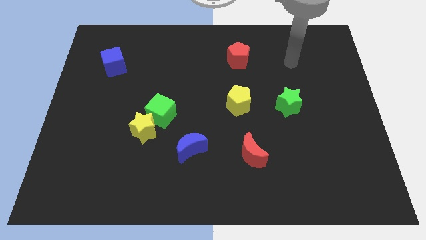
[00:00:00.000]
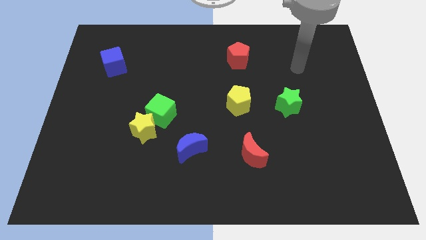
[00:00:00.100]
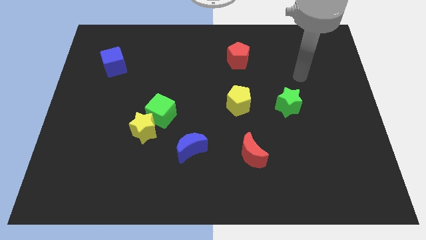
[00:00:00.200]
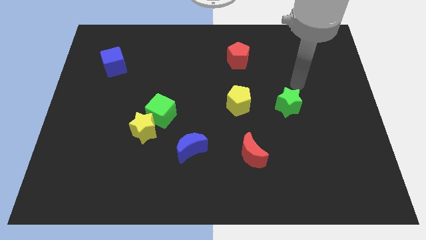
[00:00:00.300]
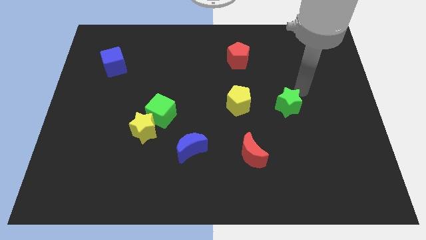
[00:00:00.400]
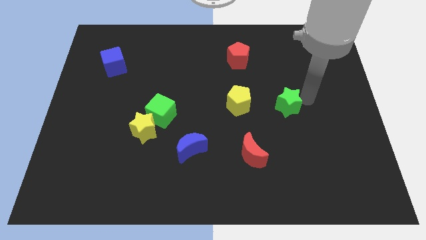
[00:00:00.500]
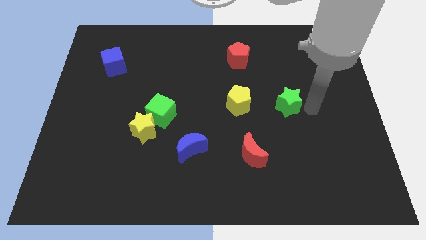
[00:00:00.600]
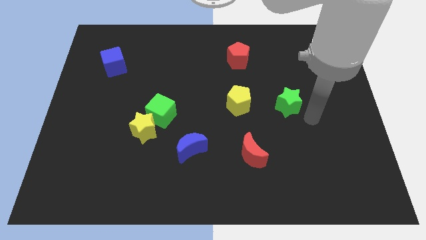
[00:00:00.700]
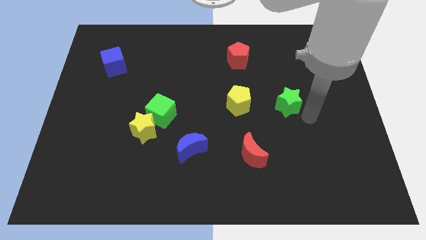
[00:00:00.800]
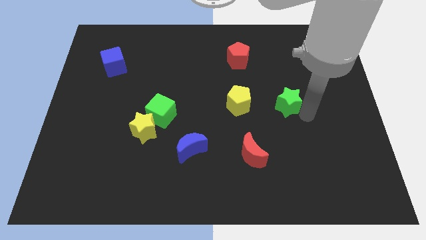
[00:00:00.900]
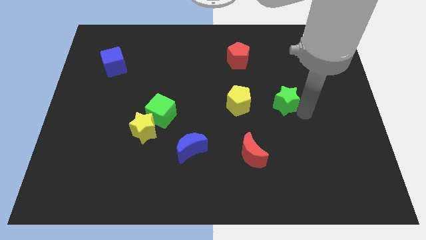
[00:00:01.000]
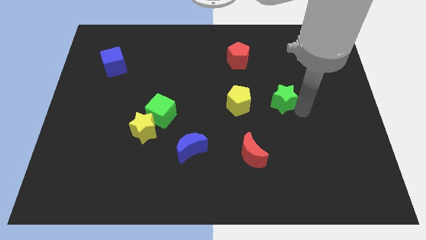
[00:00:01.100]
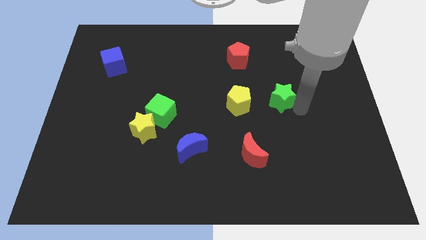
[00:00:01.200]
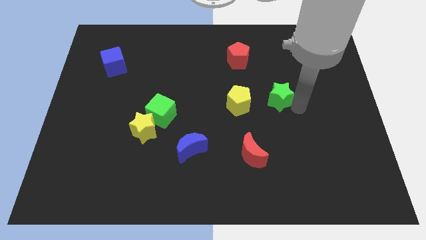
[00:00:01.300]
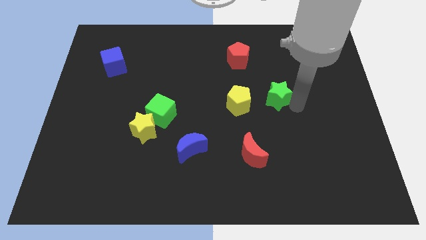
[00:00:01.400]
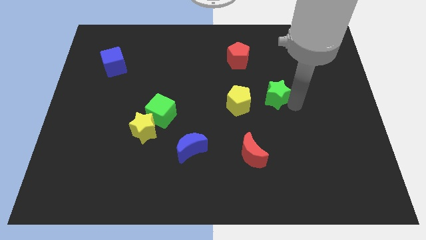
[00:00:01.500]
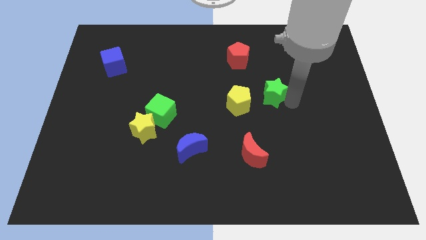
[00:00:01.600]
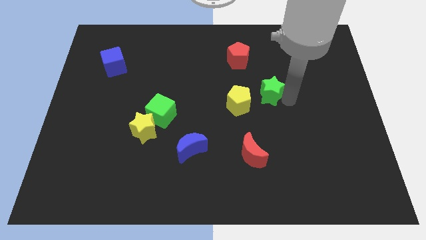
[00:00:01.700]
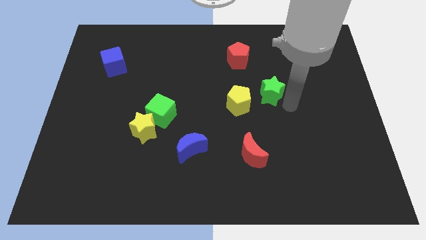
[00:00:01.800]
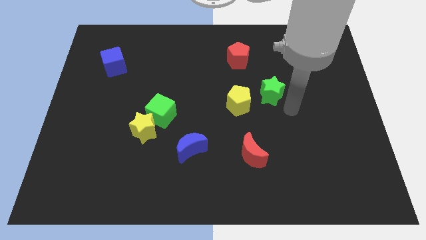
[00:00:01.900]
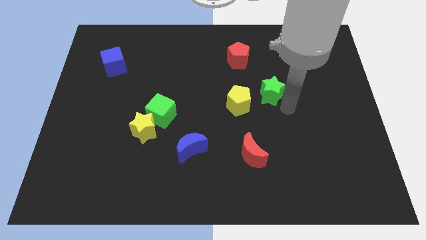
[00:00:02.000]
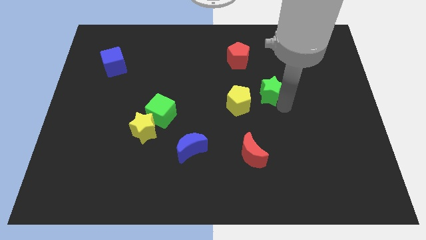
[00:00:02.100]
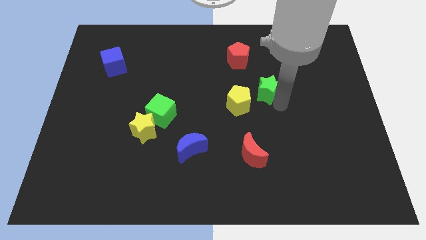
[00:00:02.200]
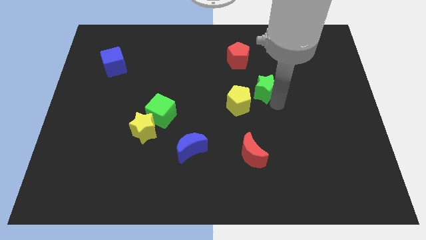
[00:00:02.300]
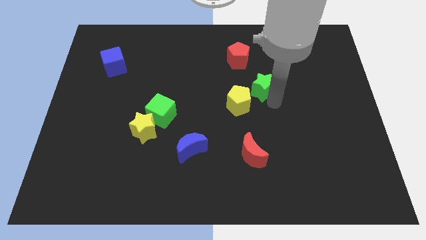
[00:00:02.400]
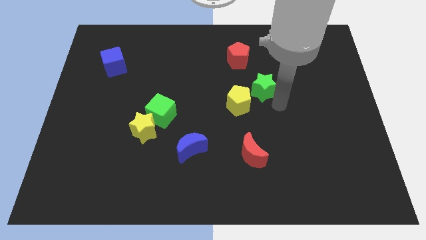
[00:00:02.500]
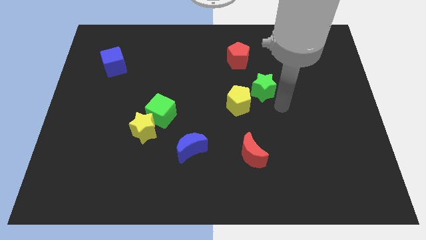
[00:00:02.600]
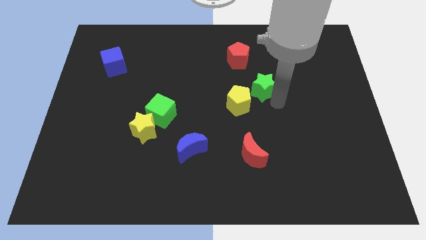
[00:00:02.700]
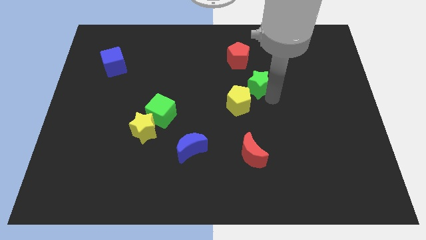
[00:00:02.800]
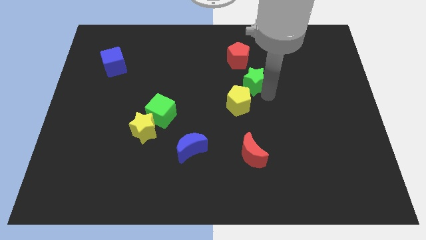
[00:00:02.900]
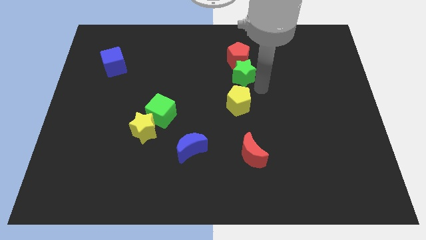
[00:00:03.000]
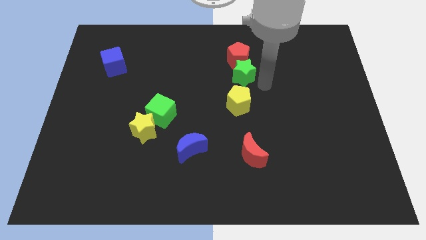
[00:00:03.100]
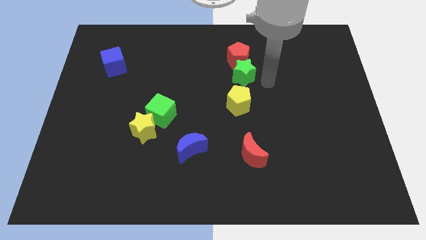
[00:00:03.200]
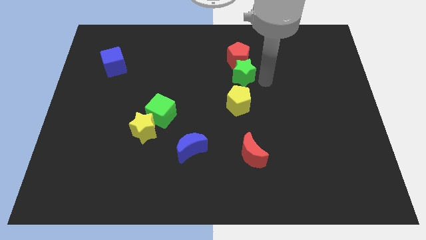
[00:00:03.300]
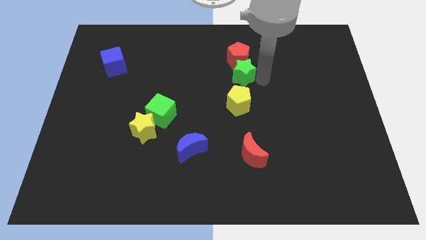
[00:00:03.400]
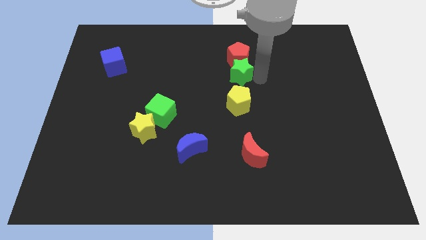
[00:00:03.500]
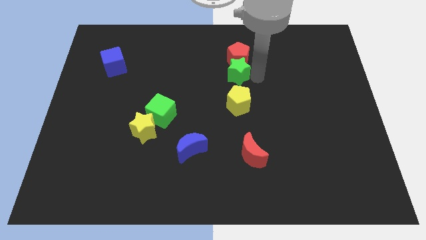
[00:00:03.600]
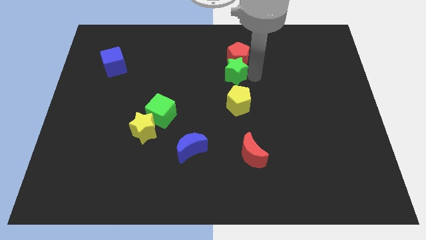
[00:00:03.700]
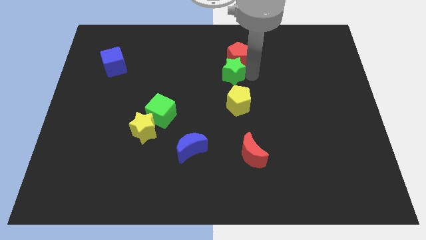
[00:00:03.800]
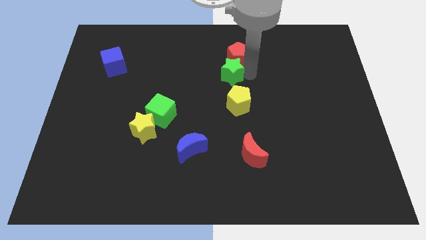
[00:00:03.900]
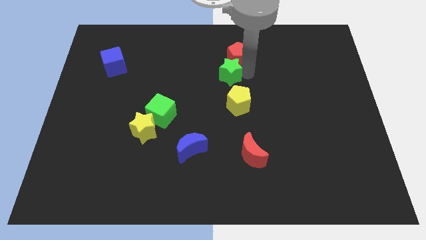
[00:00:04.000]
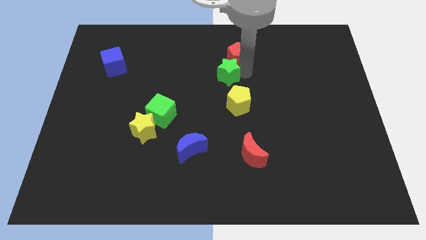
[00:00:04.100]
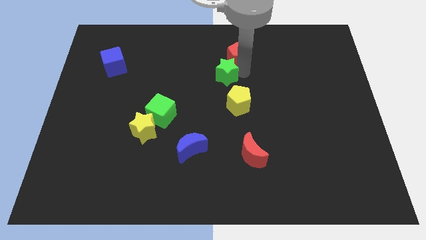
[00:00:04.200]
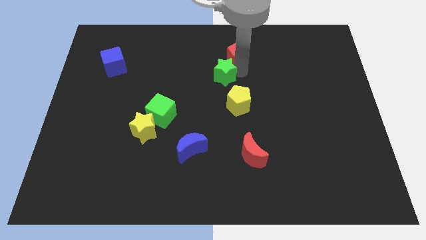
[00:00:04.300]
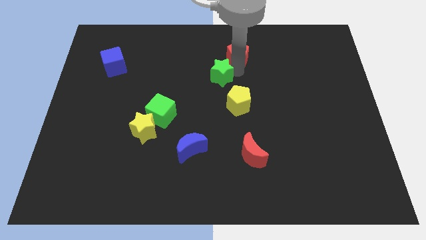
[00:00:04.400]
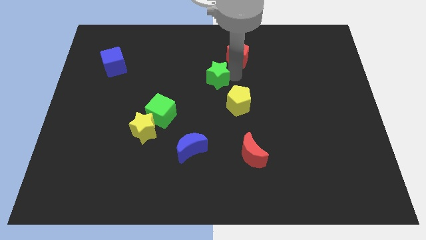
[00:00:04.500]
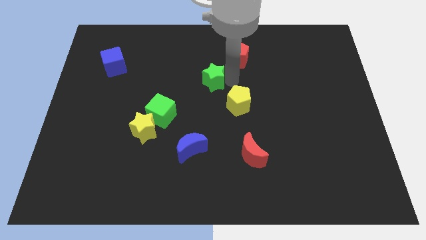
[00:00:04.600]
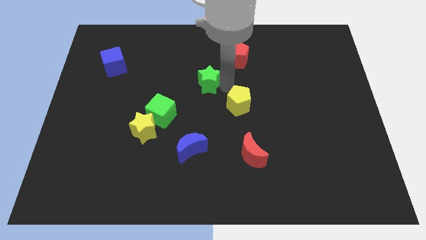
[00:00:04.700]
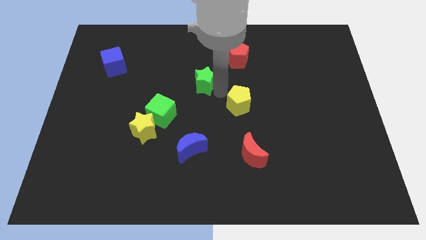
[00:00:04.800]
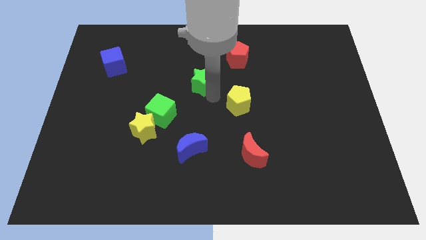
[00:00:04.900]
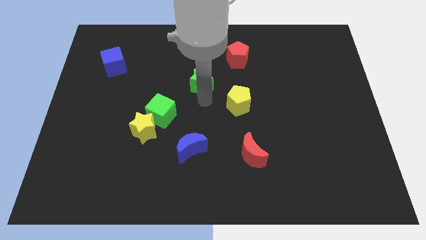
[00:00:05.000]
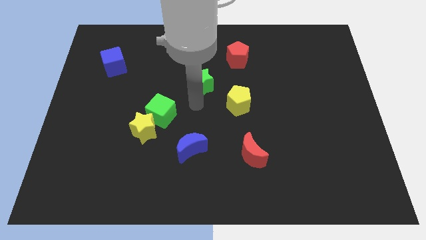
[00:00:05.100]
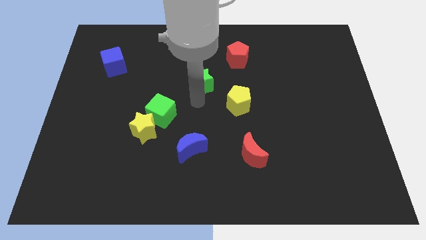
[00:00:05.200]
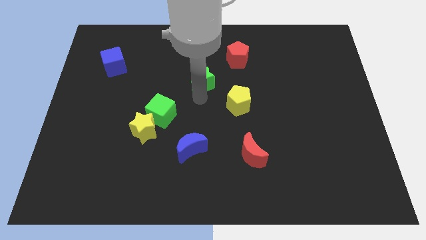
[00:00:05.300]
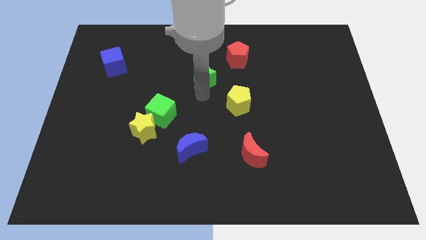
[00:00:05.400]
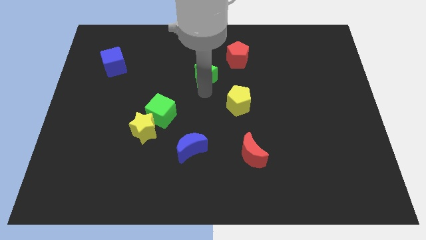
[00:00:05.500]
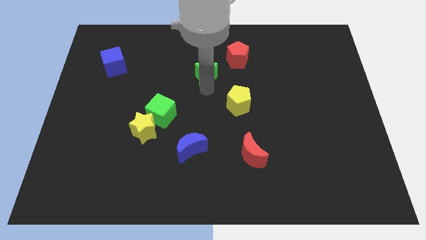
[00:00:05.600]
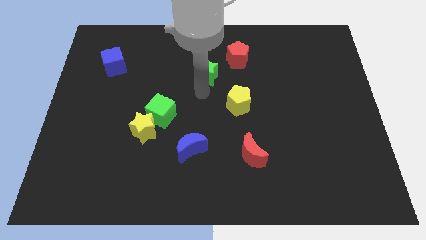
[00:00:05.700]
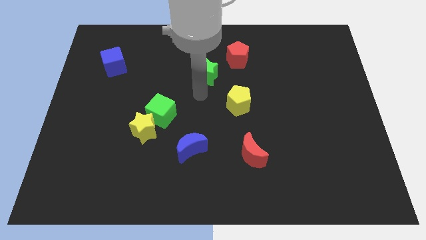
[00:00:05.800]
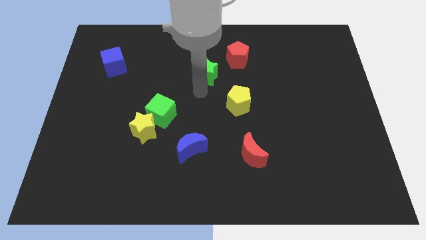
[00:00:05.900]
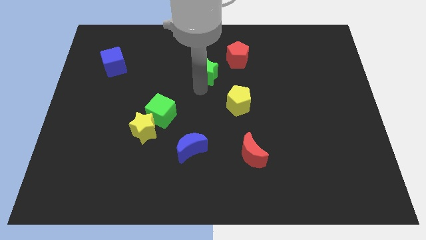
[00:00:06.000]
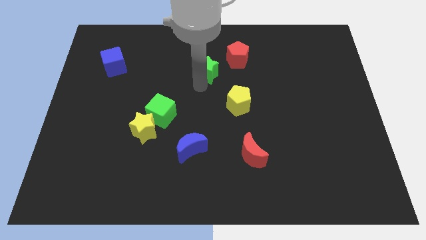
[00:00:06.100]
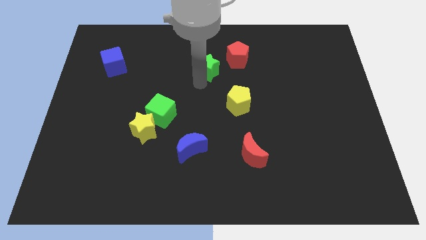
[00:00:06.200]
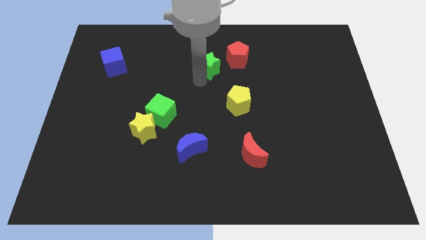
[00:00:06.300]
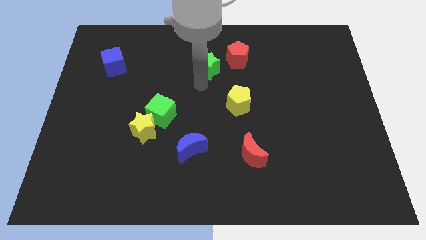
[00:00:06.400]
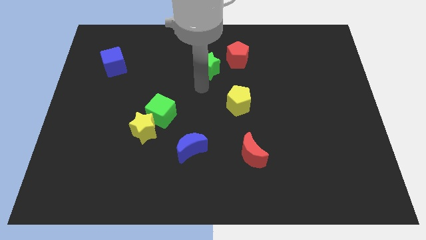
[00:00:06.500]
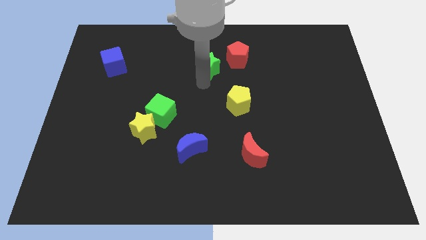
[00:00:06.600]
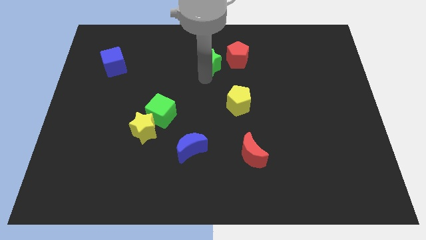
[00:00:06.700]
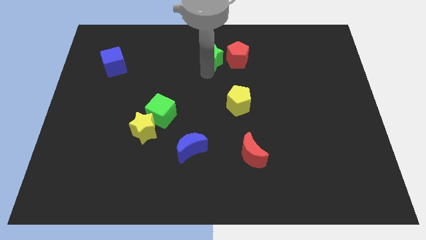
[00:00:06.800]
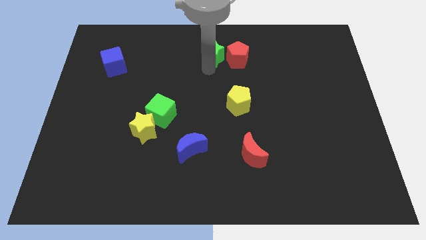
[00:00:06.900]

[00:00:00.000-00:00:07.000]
slide the green star to the top side

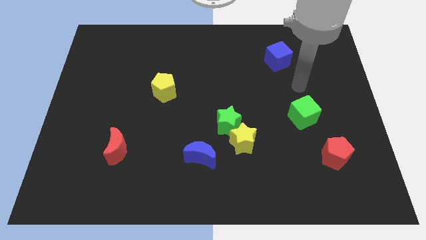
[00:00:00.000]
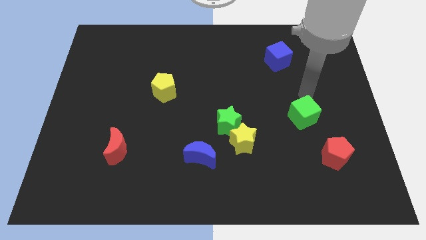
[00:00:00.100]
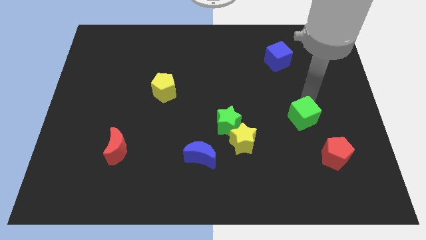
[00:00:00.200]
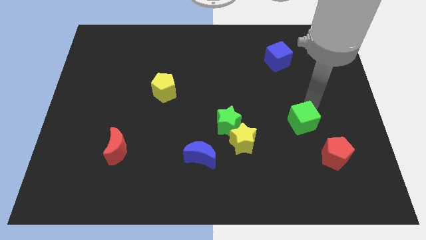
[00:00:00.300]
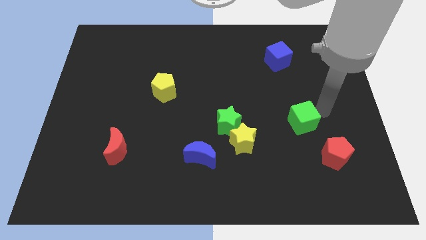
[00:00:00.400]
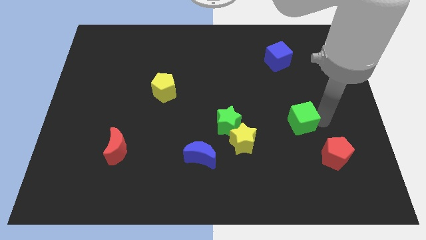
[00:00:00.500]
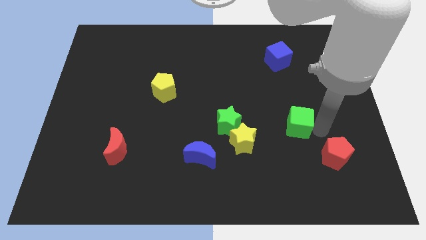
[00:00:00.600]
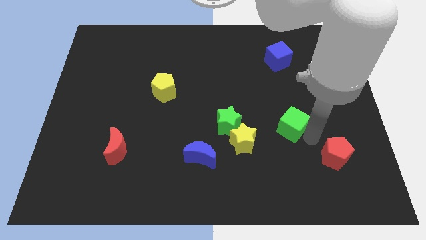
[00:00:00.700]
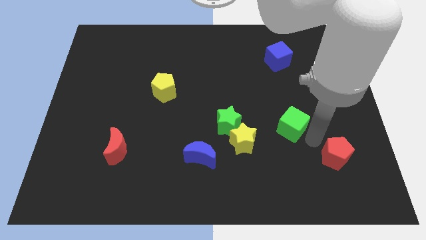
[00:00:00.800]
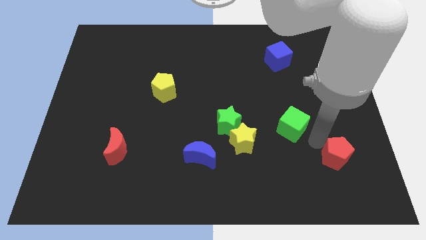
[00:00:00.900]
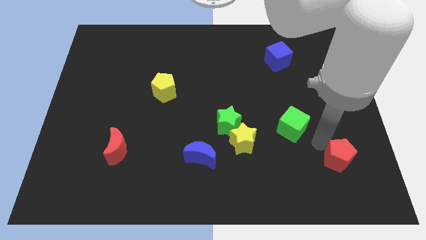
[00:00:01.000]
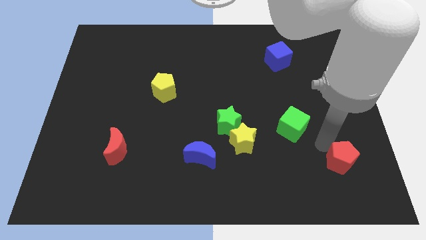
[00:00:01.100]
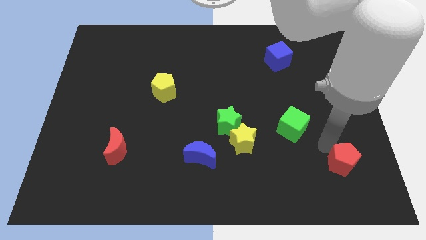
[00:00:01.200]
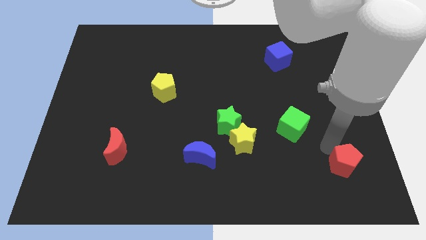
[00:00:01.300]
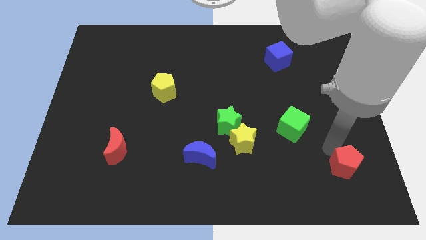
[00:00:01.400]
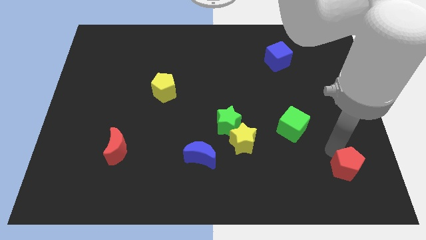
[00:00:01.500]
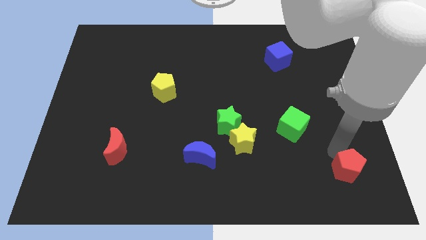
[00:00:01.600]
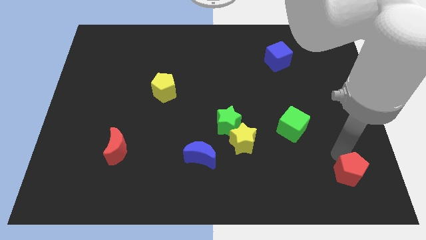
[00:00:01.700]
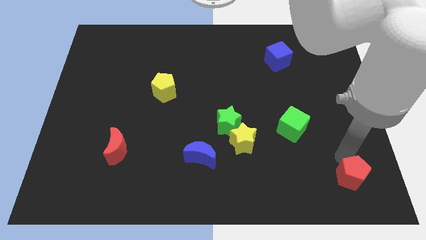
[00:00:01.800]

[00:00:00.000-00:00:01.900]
slide the red pentagon to the bottom right
